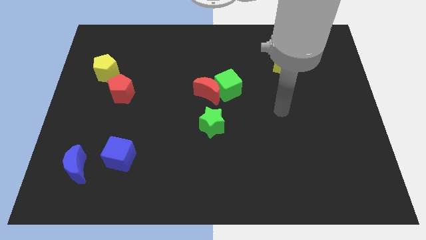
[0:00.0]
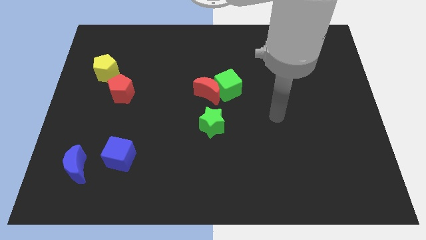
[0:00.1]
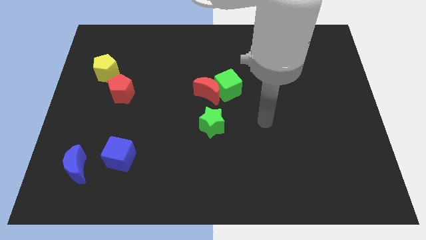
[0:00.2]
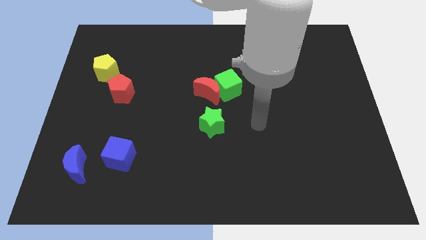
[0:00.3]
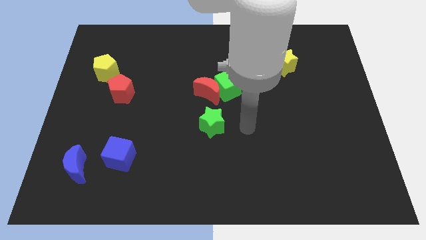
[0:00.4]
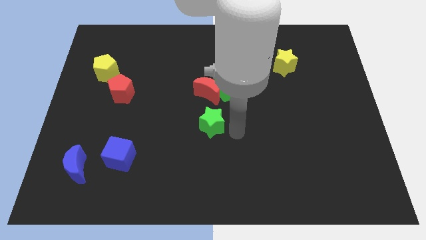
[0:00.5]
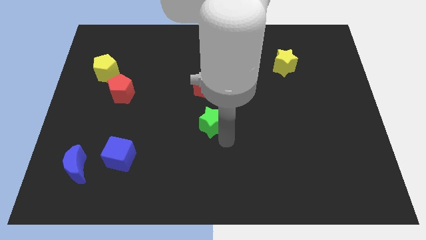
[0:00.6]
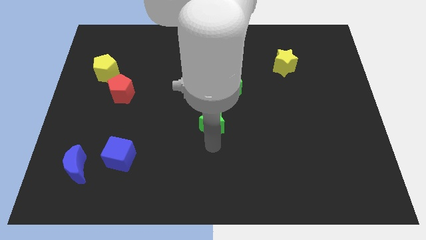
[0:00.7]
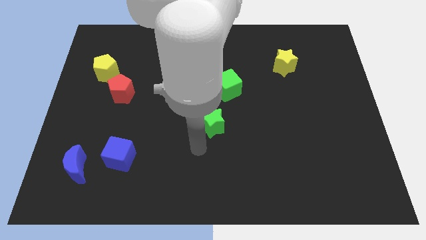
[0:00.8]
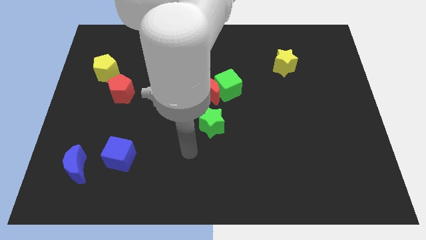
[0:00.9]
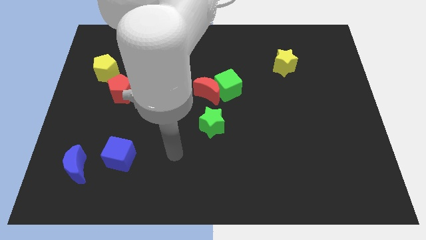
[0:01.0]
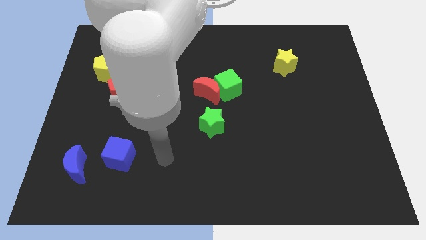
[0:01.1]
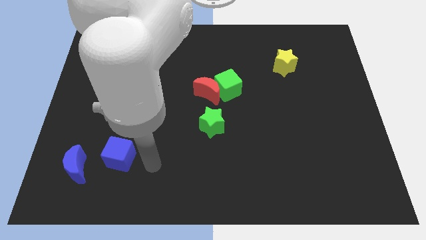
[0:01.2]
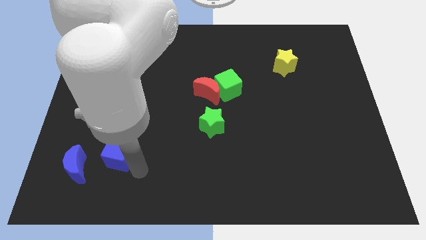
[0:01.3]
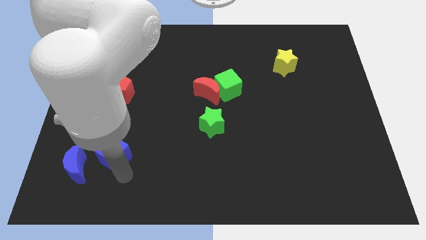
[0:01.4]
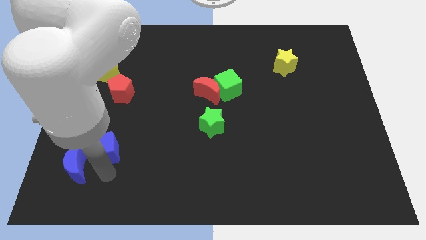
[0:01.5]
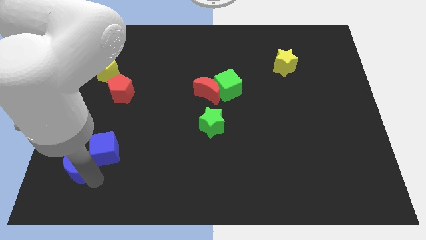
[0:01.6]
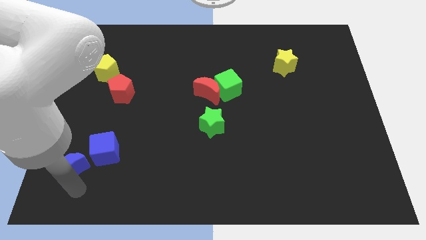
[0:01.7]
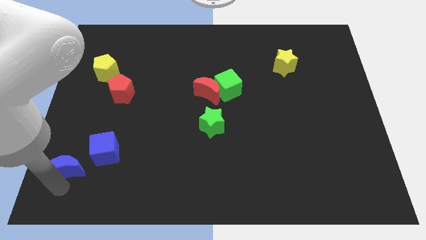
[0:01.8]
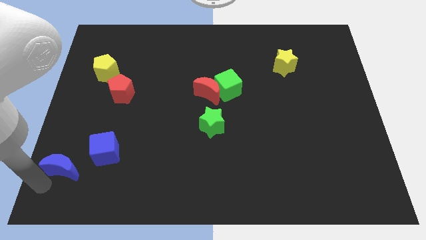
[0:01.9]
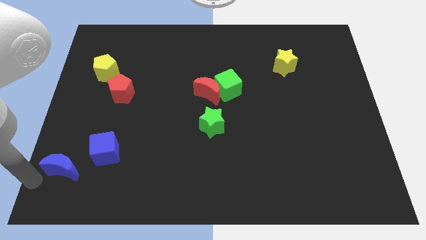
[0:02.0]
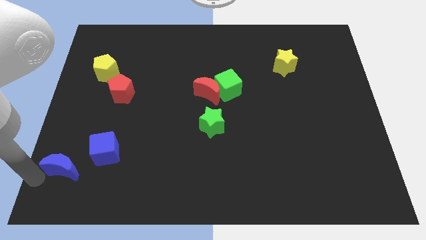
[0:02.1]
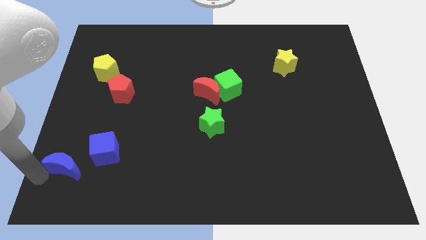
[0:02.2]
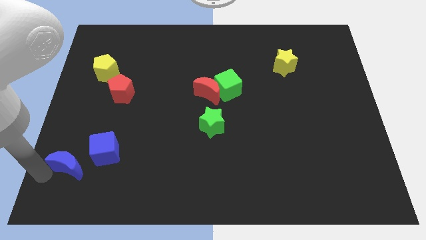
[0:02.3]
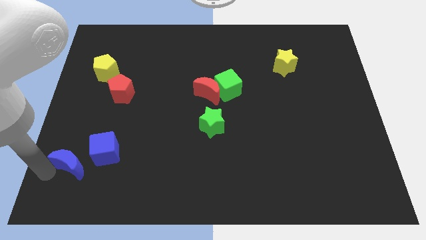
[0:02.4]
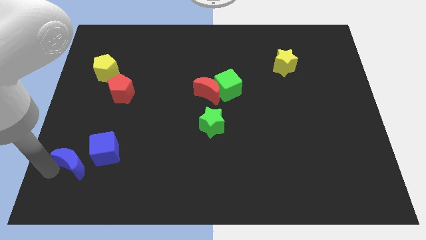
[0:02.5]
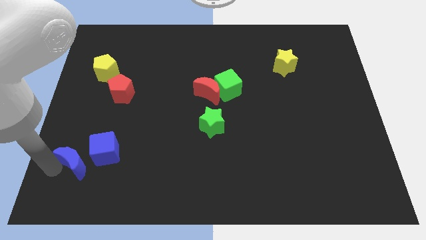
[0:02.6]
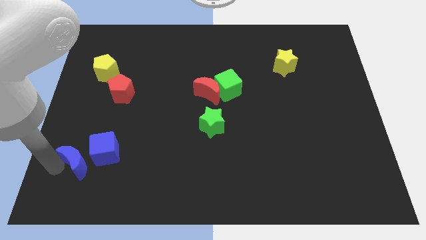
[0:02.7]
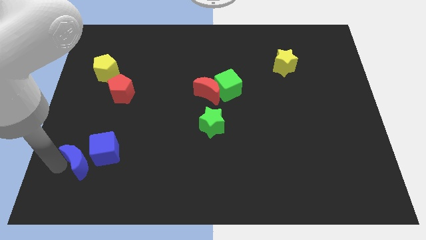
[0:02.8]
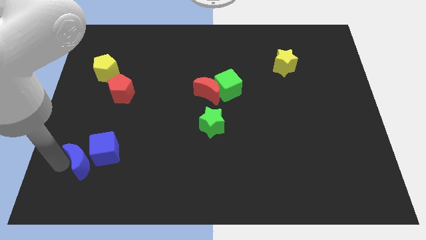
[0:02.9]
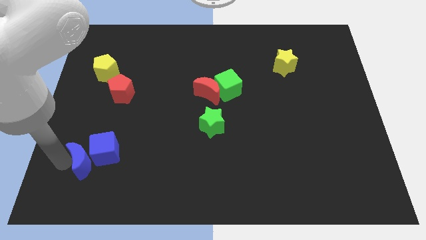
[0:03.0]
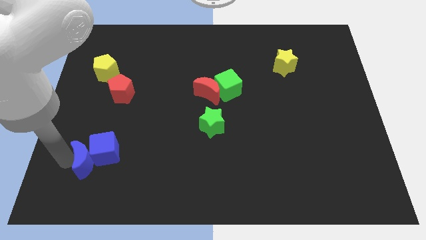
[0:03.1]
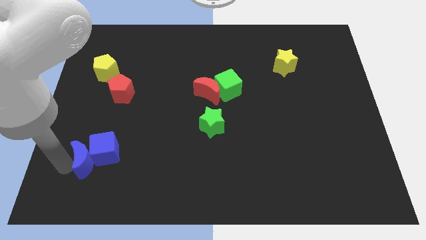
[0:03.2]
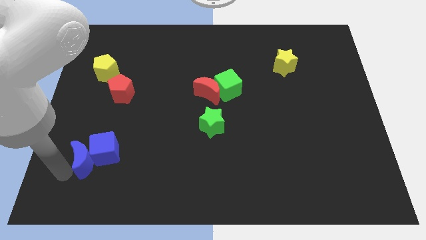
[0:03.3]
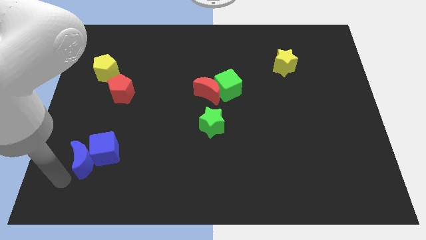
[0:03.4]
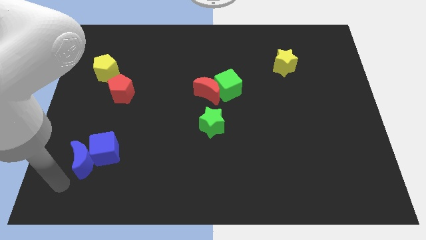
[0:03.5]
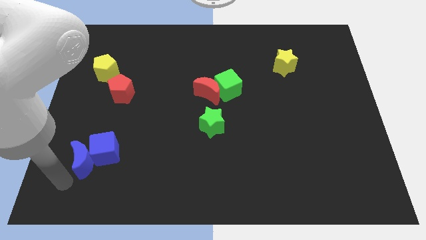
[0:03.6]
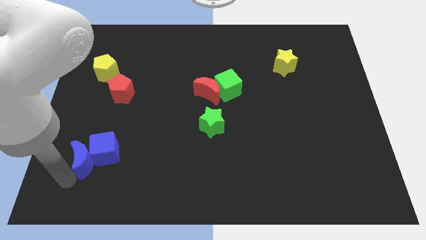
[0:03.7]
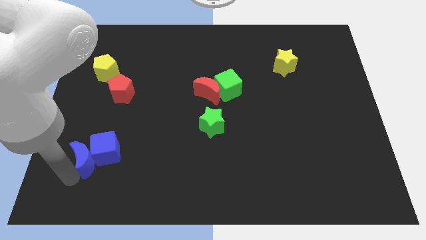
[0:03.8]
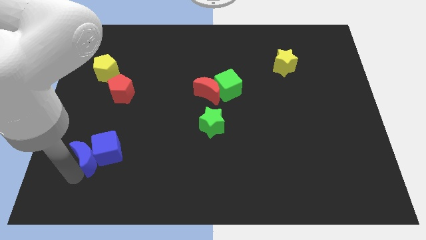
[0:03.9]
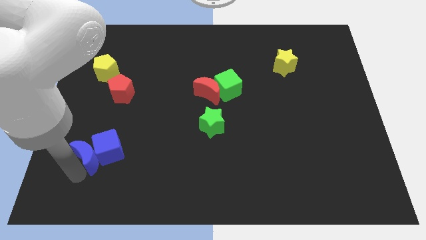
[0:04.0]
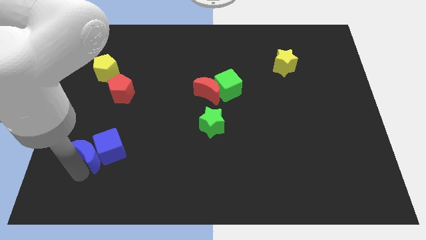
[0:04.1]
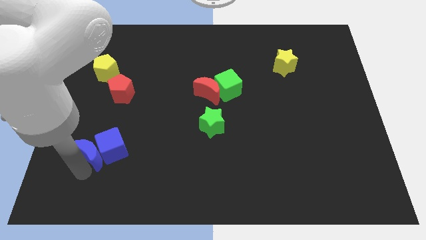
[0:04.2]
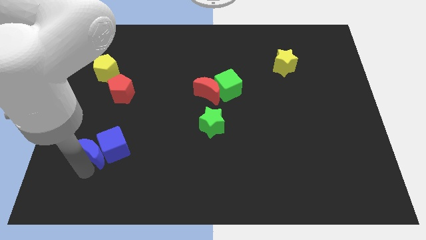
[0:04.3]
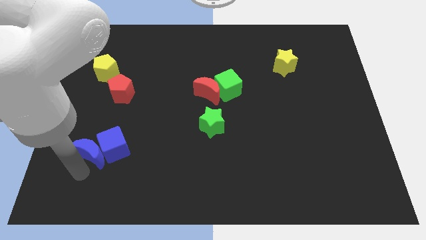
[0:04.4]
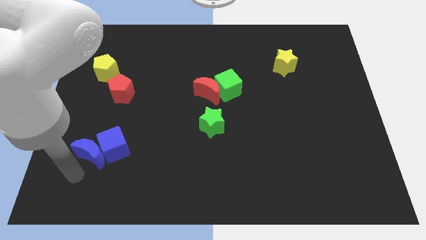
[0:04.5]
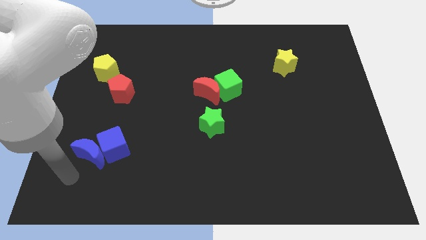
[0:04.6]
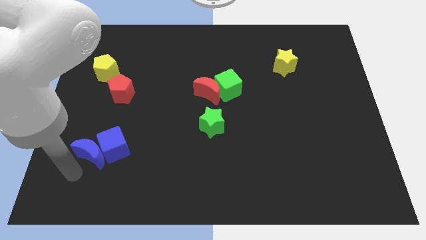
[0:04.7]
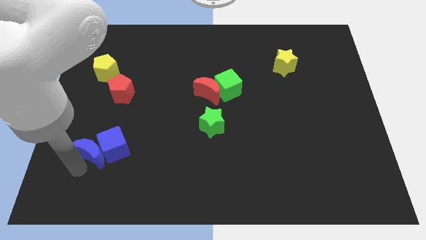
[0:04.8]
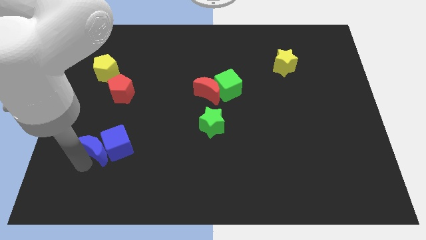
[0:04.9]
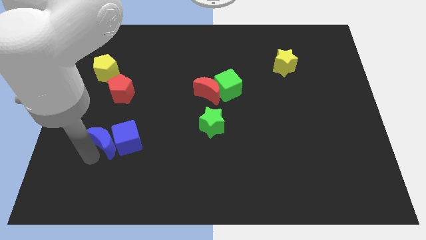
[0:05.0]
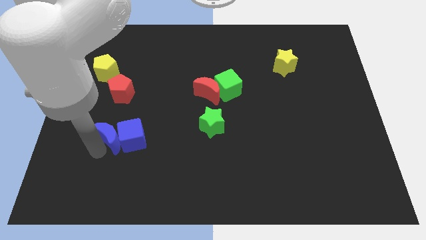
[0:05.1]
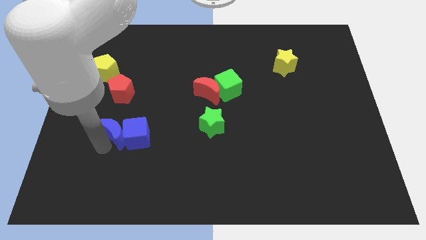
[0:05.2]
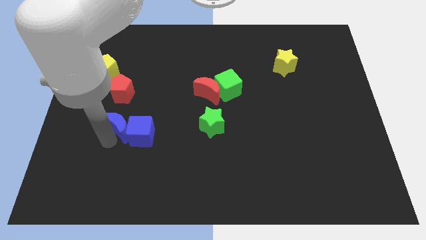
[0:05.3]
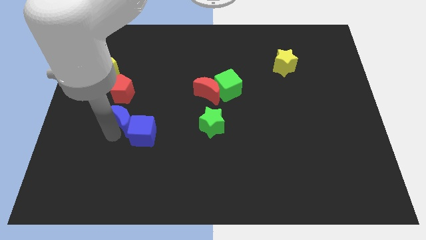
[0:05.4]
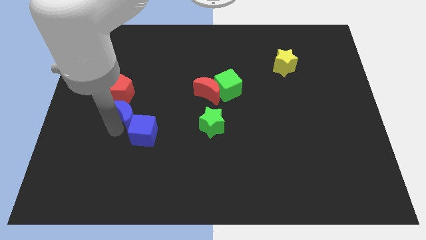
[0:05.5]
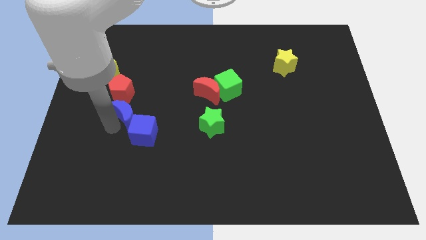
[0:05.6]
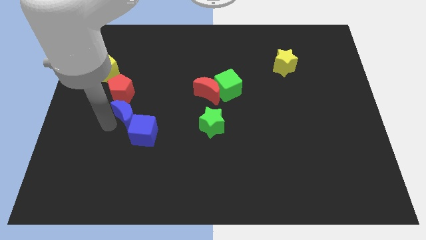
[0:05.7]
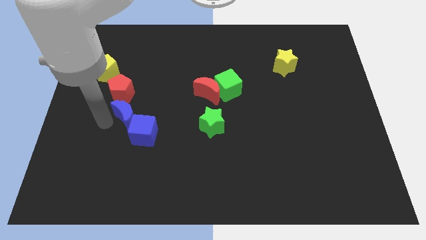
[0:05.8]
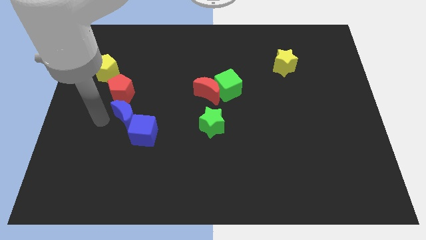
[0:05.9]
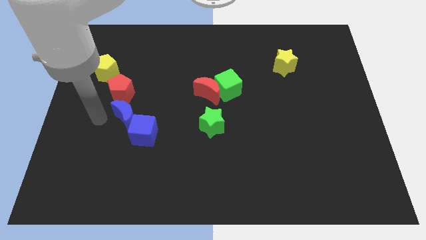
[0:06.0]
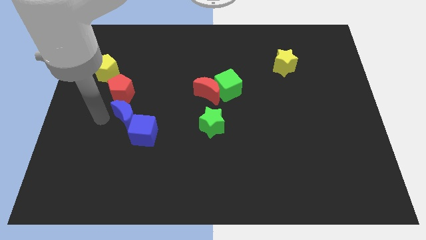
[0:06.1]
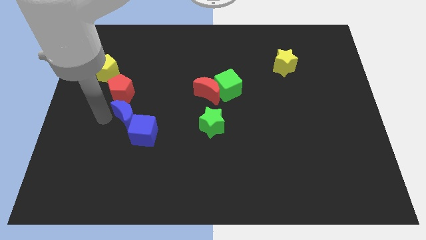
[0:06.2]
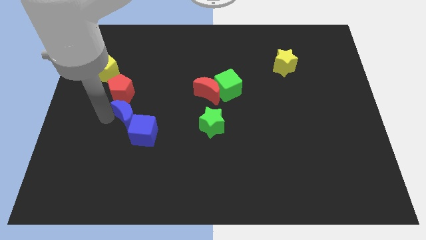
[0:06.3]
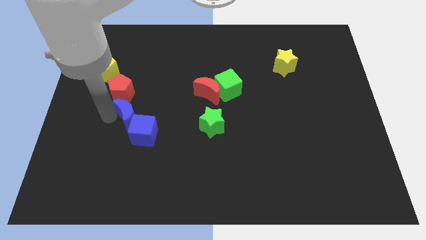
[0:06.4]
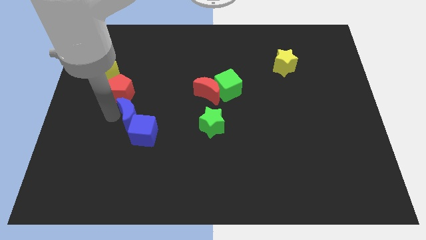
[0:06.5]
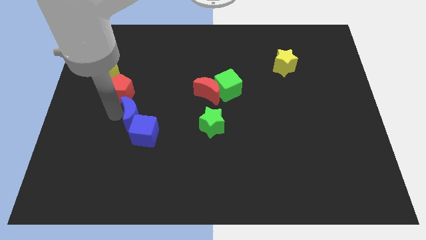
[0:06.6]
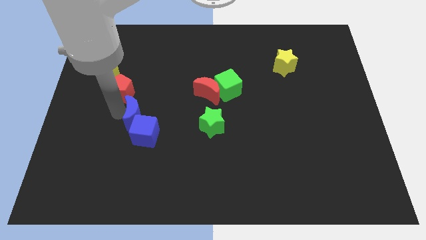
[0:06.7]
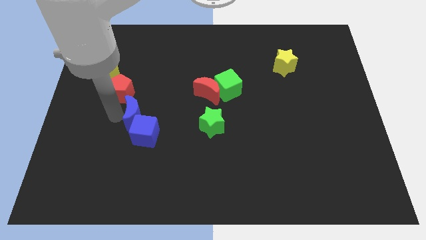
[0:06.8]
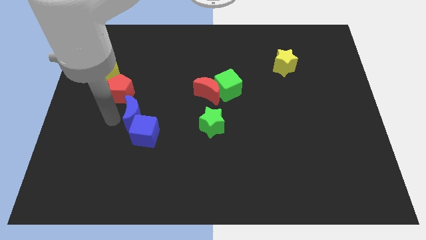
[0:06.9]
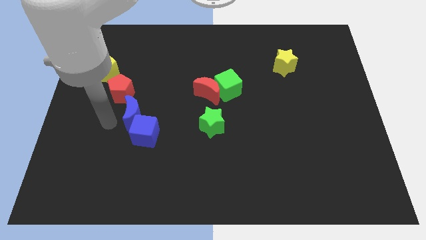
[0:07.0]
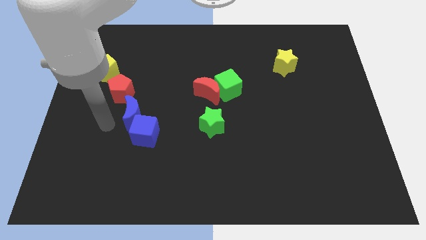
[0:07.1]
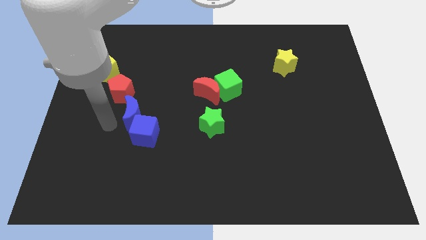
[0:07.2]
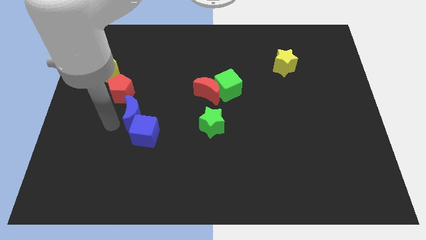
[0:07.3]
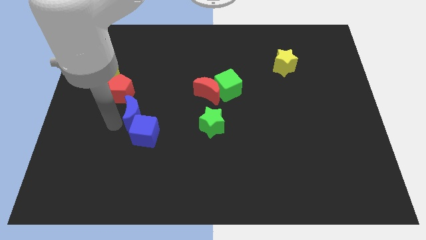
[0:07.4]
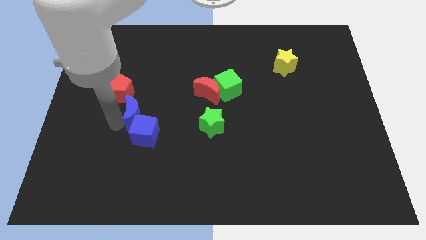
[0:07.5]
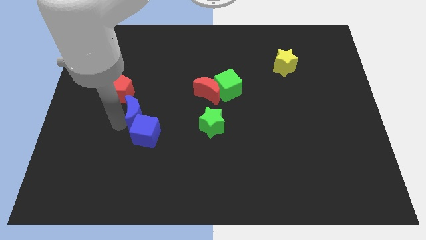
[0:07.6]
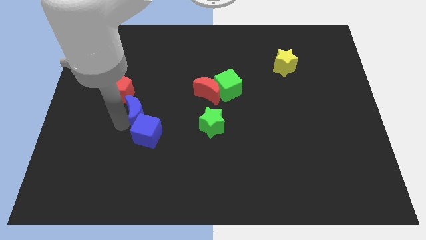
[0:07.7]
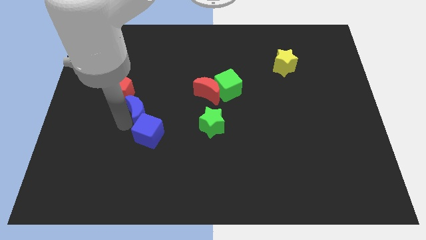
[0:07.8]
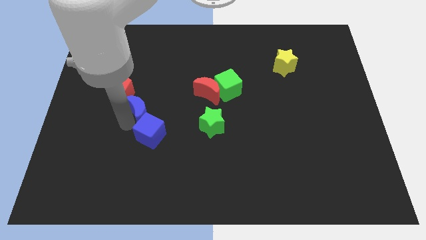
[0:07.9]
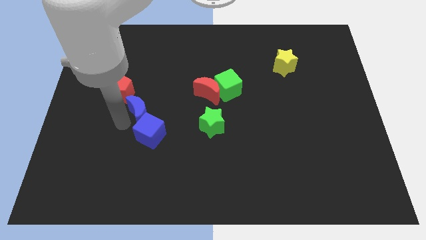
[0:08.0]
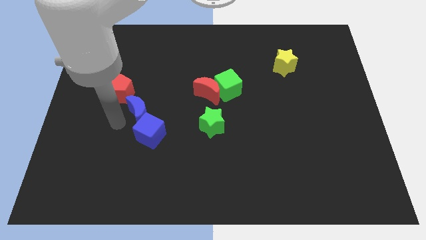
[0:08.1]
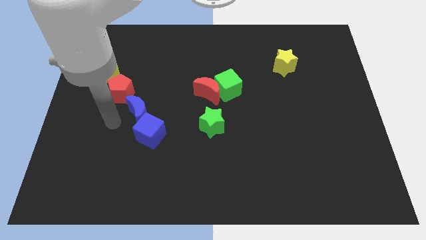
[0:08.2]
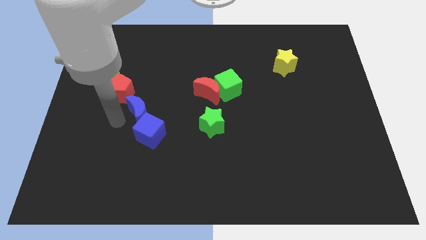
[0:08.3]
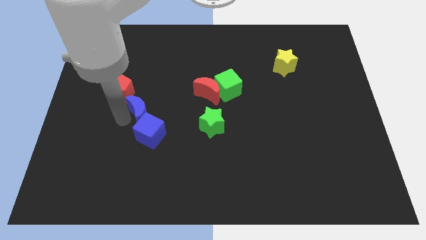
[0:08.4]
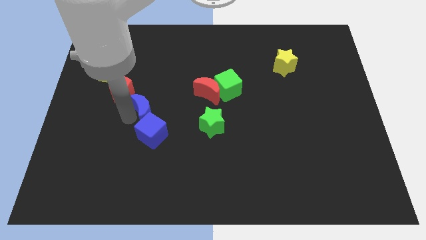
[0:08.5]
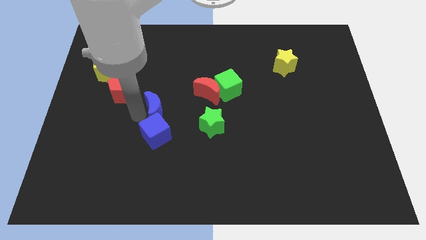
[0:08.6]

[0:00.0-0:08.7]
move the blue moon up and right diagonally
